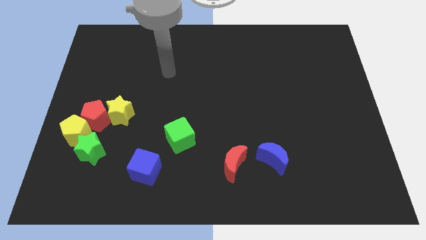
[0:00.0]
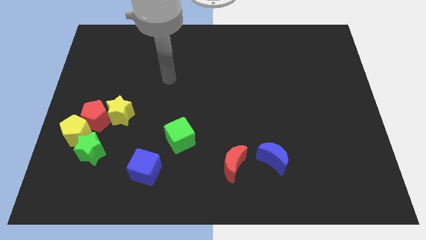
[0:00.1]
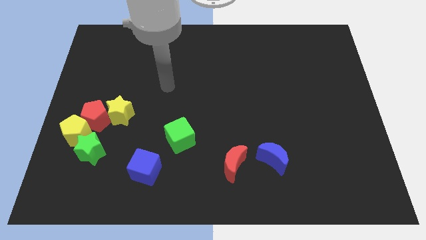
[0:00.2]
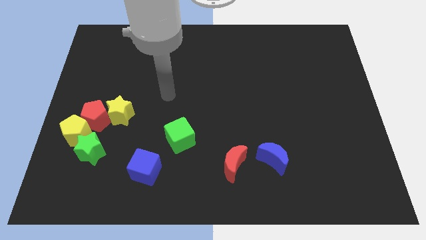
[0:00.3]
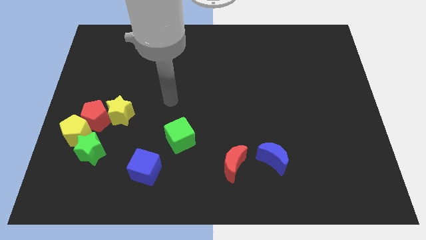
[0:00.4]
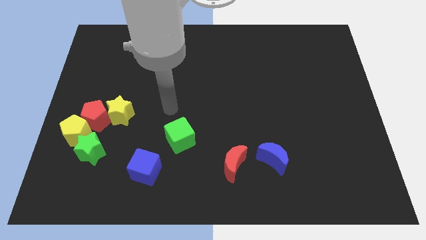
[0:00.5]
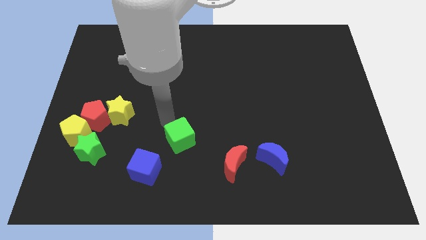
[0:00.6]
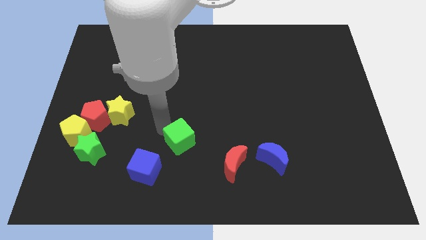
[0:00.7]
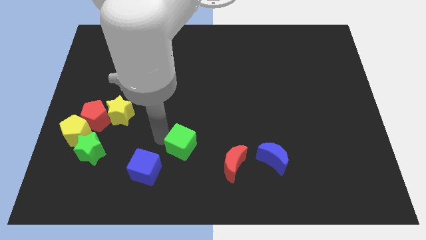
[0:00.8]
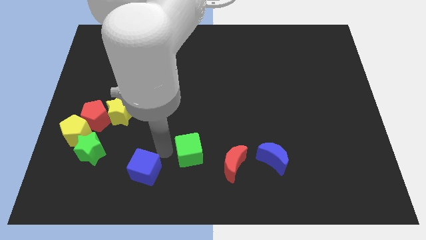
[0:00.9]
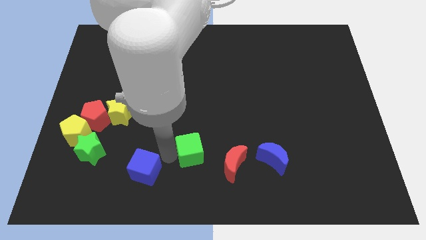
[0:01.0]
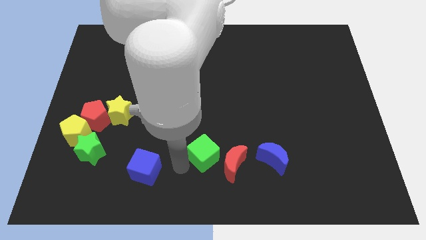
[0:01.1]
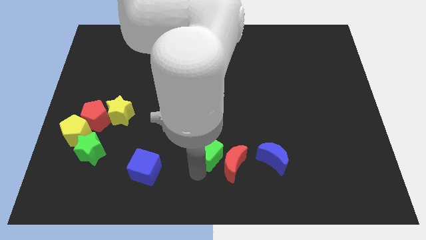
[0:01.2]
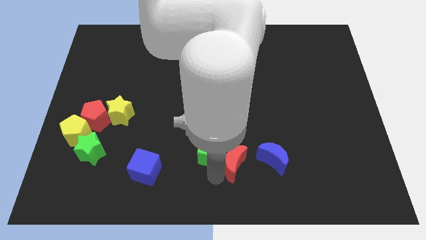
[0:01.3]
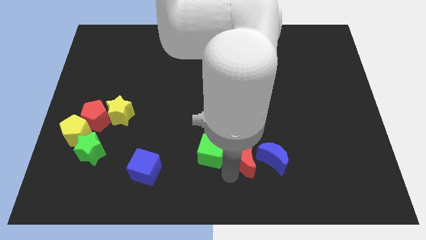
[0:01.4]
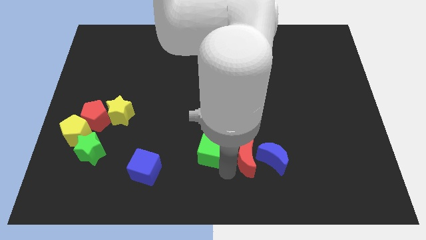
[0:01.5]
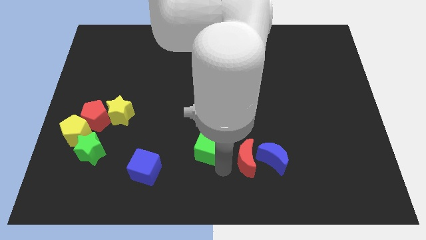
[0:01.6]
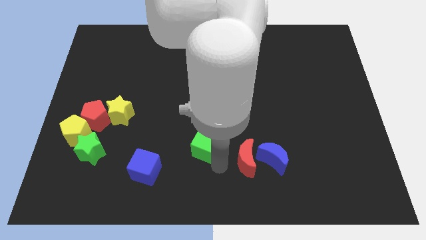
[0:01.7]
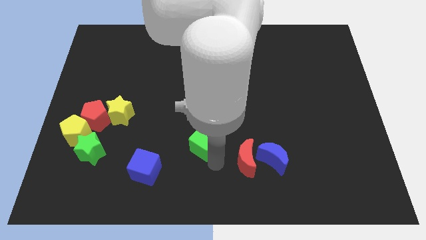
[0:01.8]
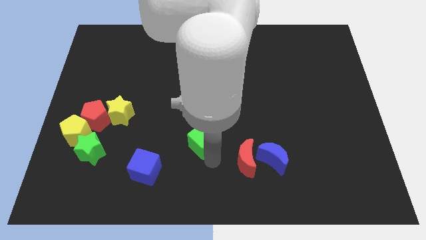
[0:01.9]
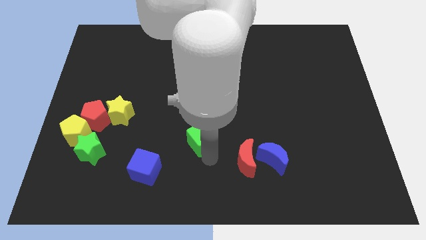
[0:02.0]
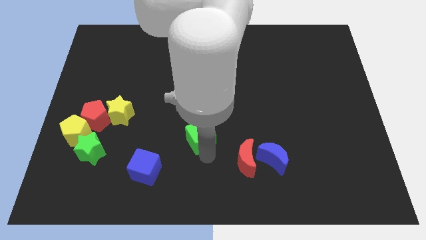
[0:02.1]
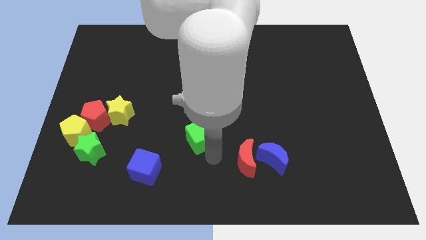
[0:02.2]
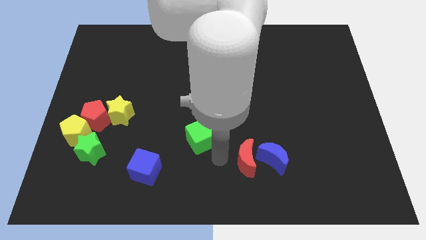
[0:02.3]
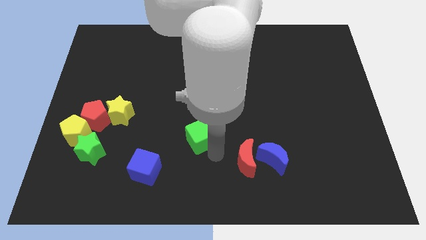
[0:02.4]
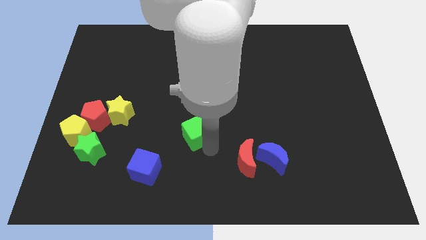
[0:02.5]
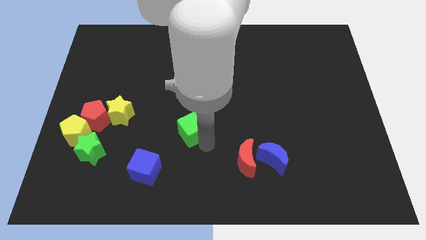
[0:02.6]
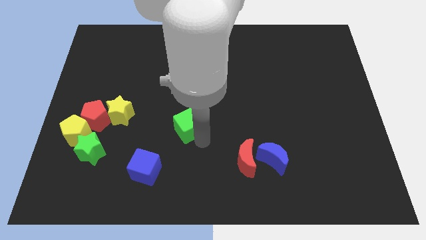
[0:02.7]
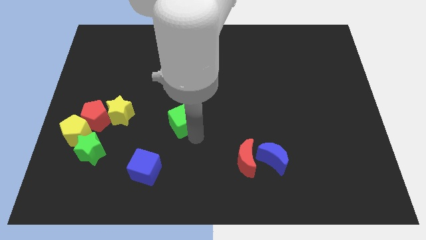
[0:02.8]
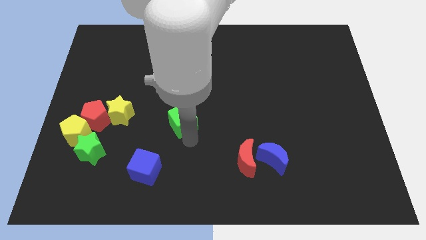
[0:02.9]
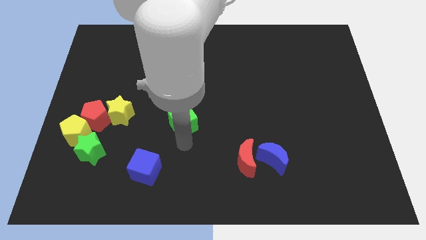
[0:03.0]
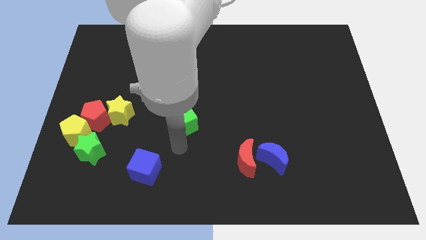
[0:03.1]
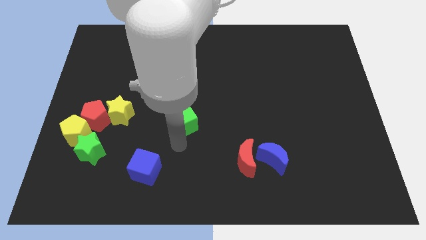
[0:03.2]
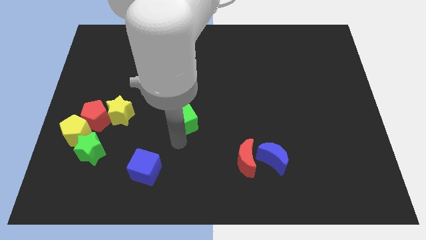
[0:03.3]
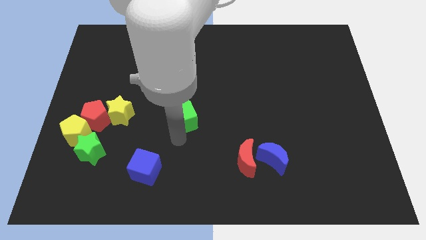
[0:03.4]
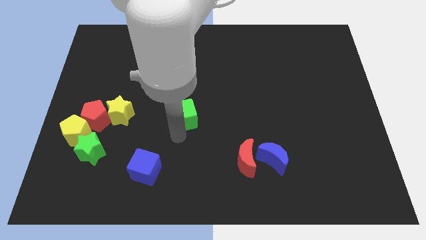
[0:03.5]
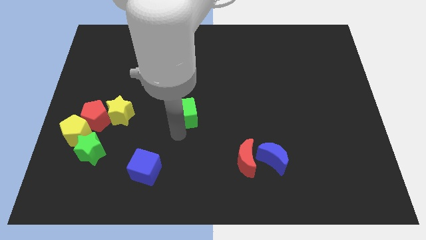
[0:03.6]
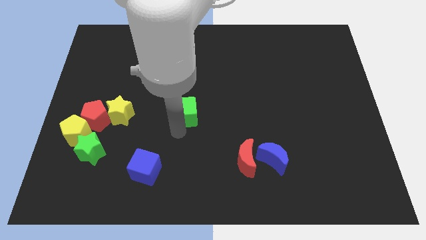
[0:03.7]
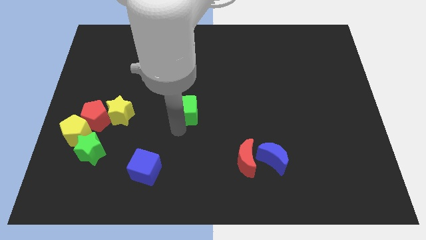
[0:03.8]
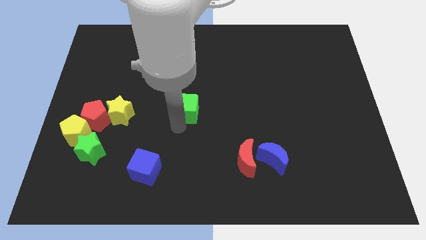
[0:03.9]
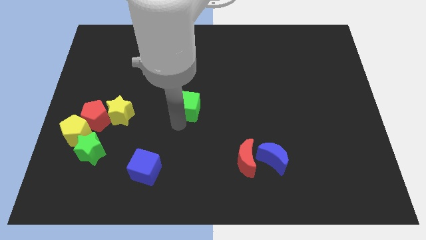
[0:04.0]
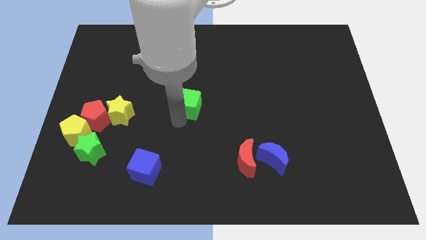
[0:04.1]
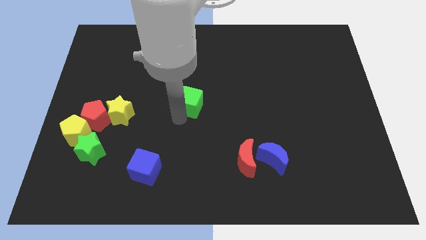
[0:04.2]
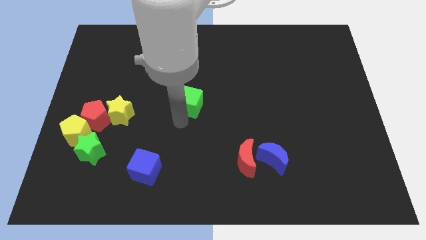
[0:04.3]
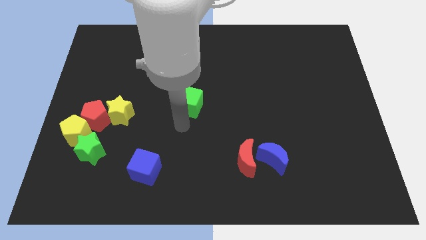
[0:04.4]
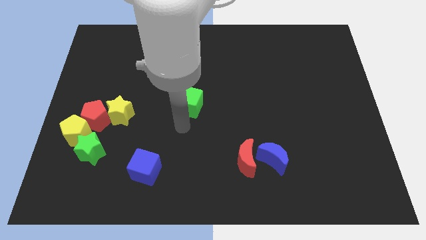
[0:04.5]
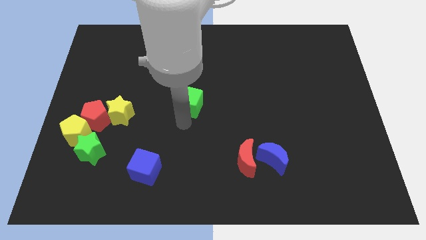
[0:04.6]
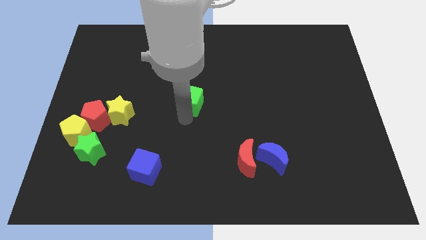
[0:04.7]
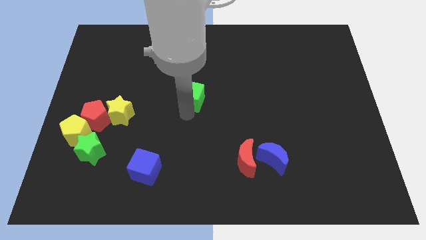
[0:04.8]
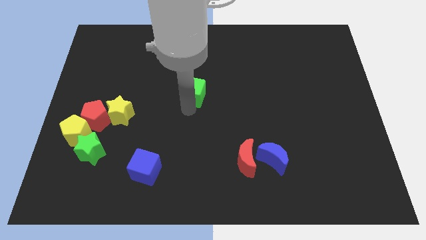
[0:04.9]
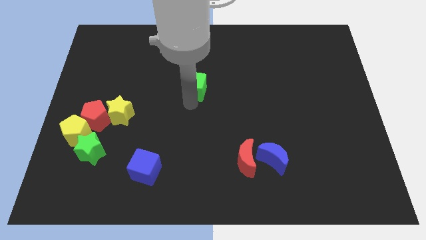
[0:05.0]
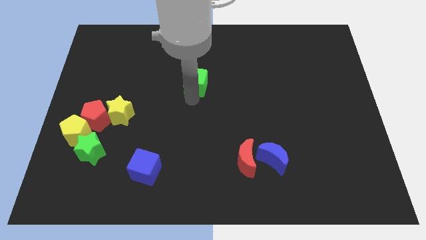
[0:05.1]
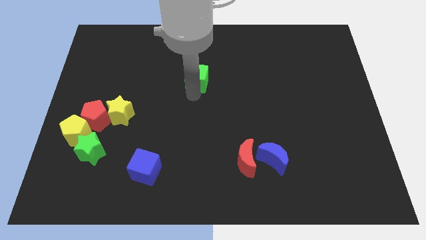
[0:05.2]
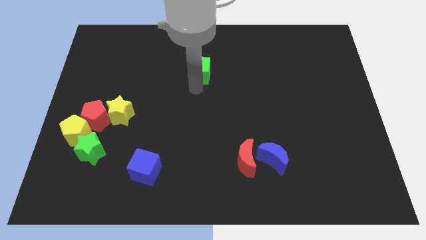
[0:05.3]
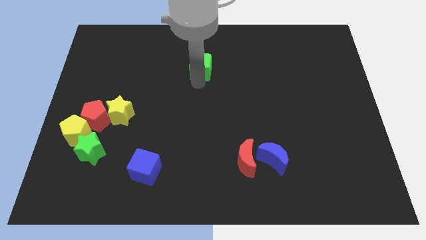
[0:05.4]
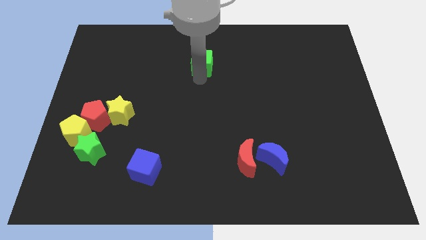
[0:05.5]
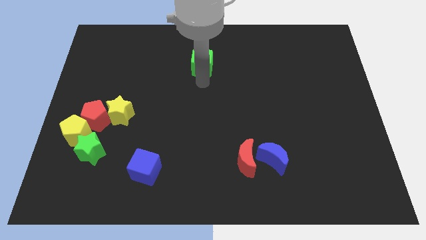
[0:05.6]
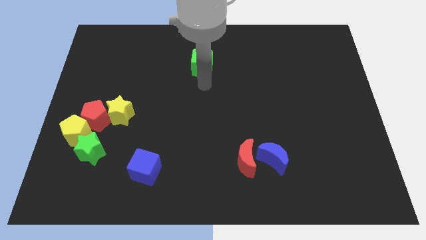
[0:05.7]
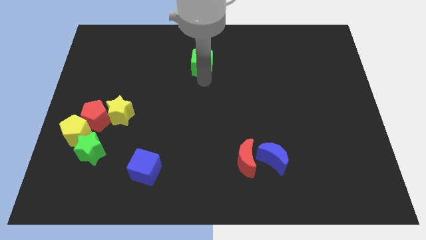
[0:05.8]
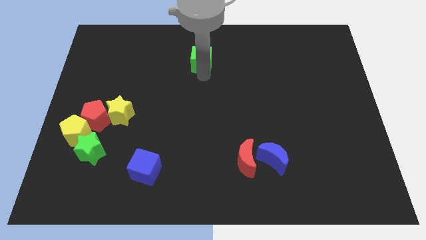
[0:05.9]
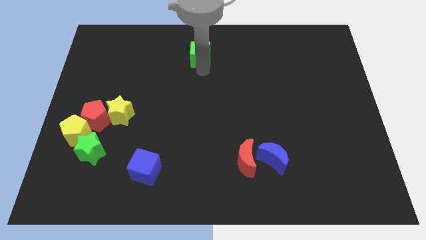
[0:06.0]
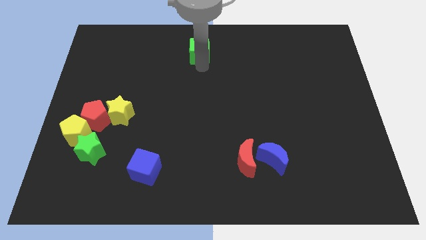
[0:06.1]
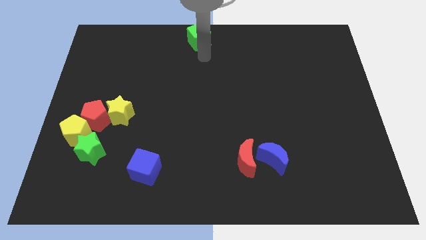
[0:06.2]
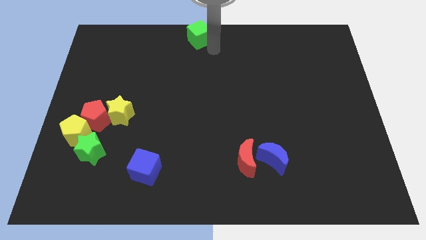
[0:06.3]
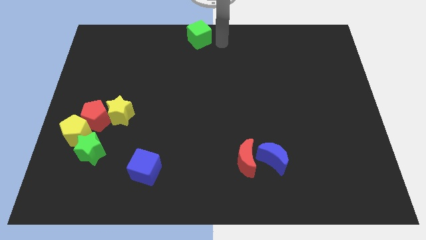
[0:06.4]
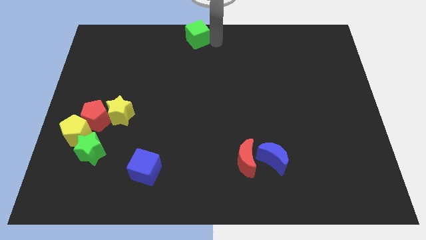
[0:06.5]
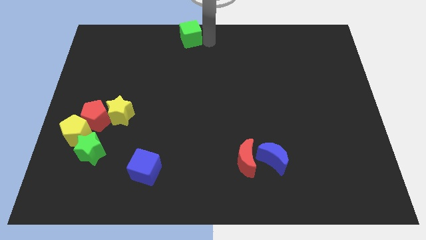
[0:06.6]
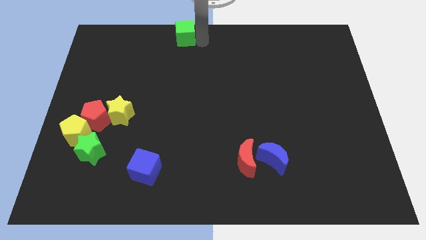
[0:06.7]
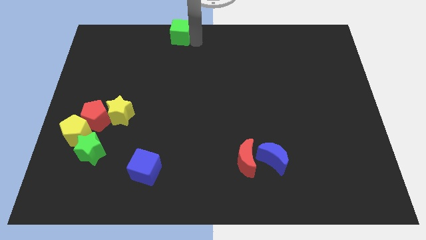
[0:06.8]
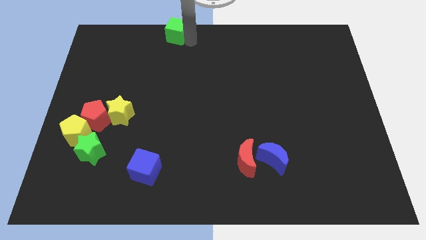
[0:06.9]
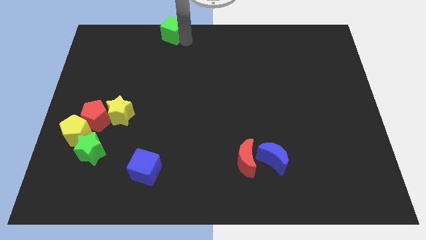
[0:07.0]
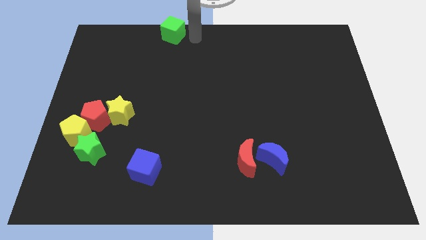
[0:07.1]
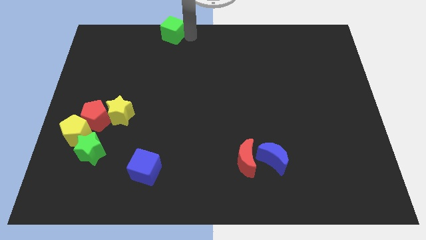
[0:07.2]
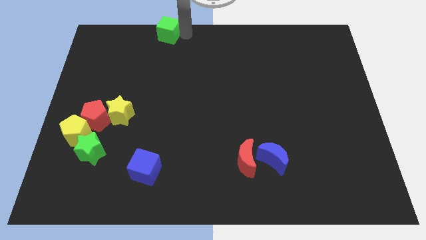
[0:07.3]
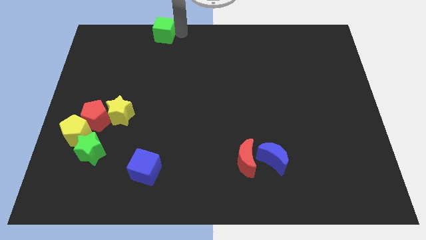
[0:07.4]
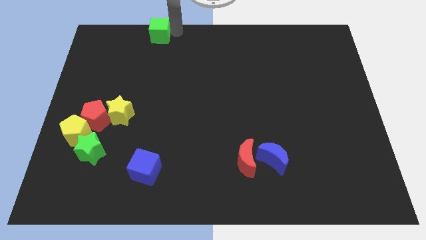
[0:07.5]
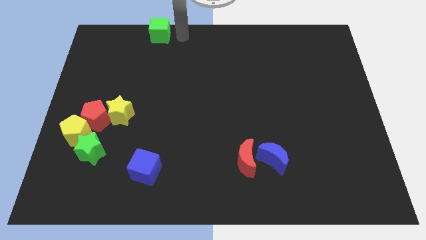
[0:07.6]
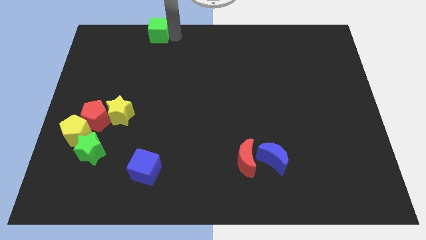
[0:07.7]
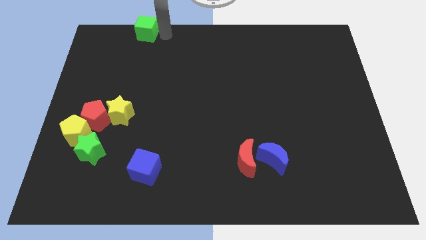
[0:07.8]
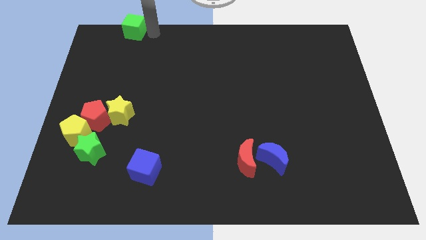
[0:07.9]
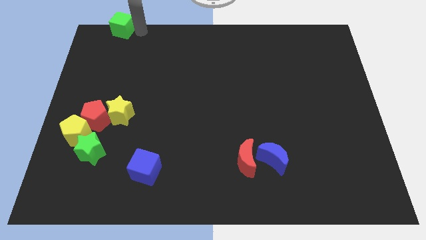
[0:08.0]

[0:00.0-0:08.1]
slide the green cube to the top left
